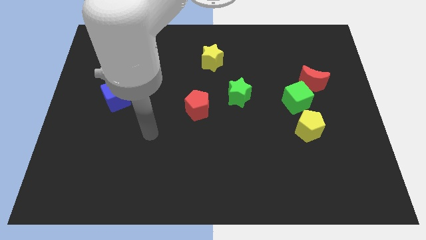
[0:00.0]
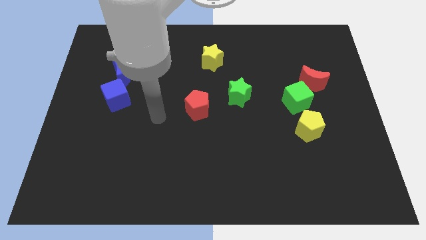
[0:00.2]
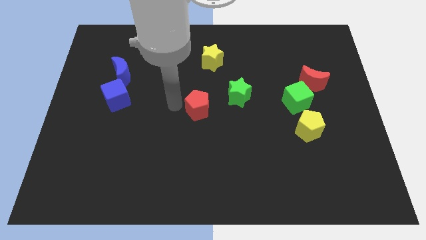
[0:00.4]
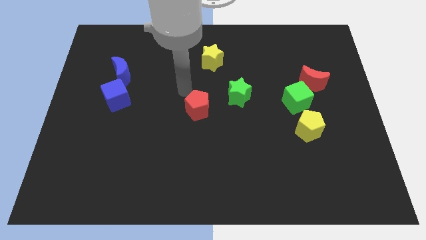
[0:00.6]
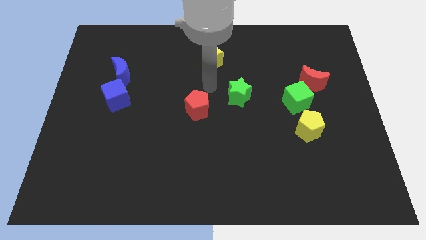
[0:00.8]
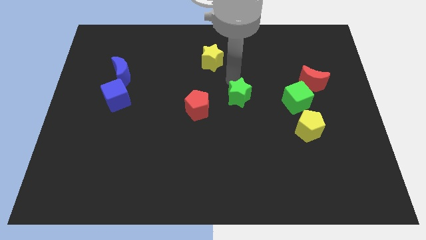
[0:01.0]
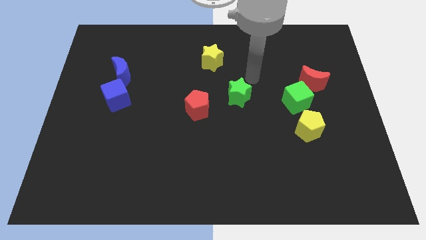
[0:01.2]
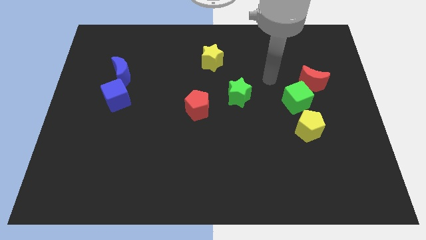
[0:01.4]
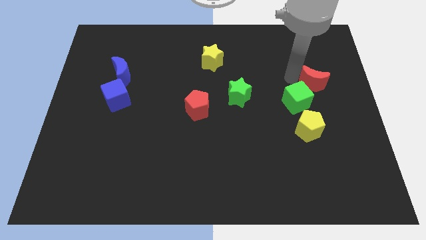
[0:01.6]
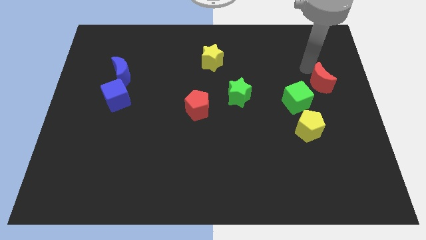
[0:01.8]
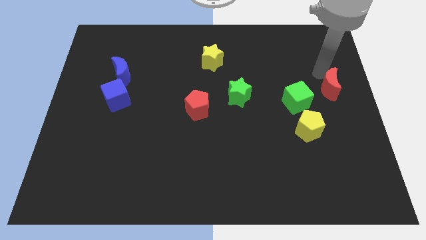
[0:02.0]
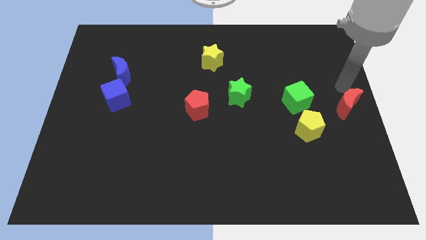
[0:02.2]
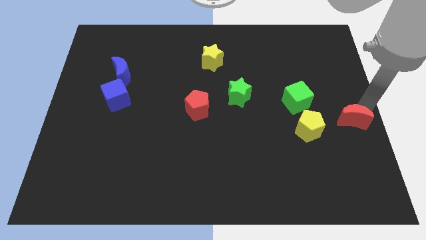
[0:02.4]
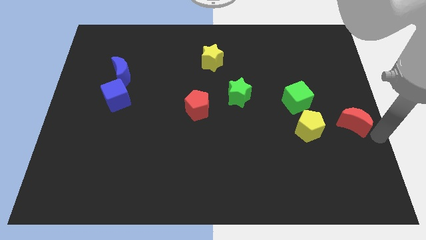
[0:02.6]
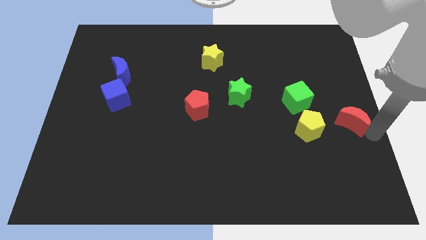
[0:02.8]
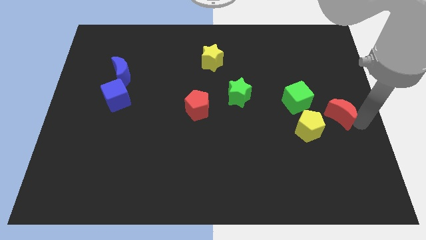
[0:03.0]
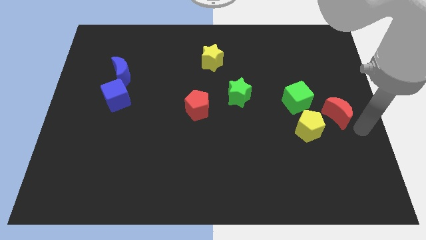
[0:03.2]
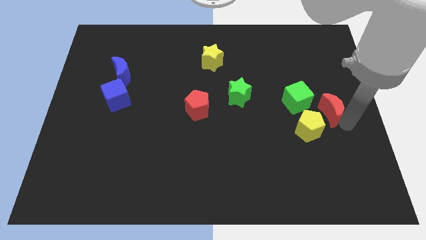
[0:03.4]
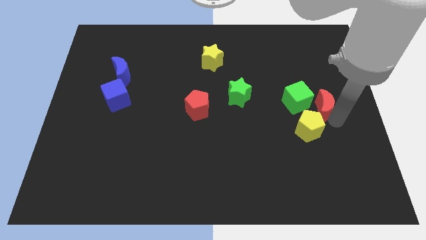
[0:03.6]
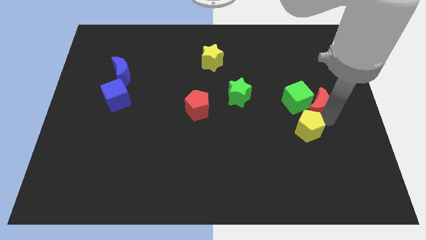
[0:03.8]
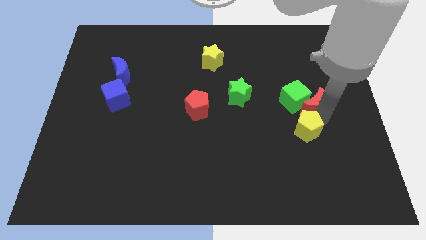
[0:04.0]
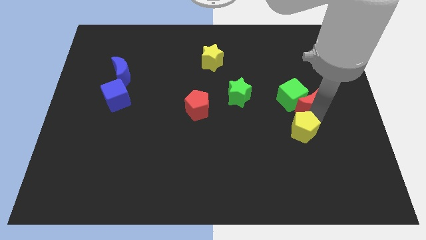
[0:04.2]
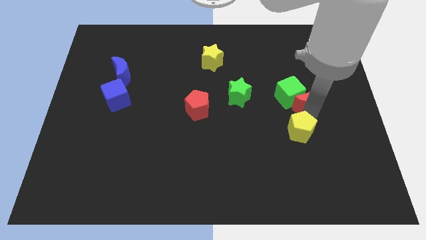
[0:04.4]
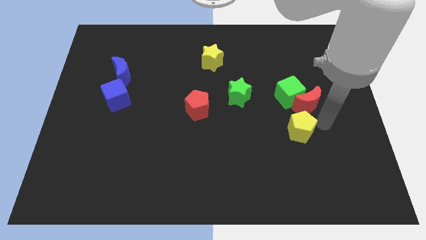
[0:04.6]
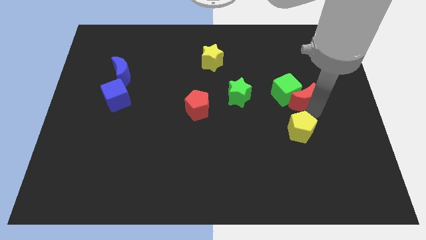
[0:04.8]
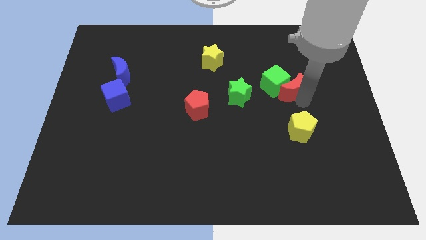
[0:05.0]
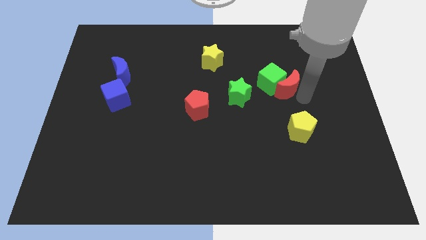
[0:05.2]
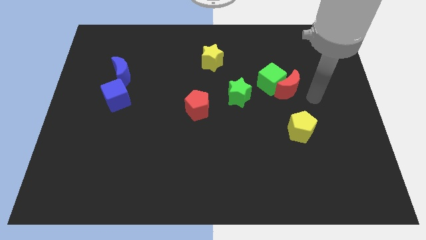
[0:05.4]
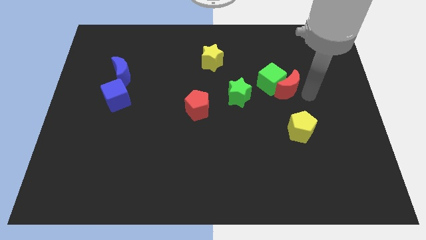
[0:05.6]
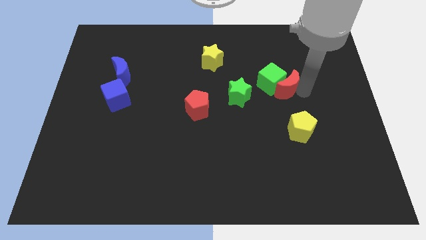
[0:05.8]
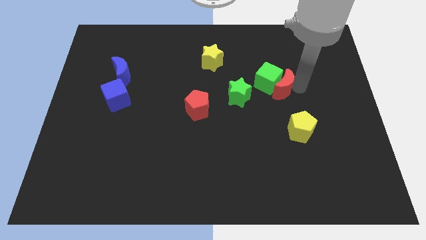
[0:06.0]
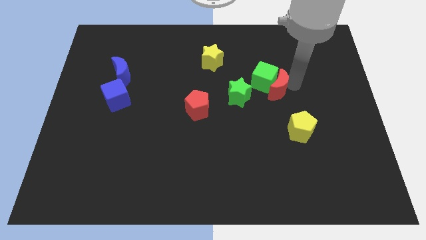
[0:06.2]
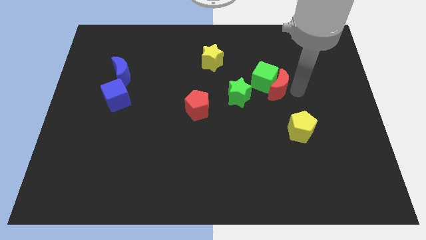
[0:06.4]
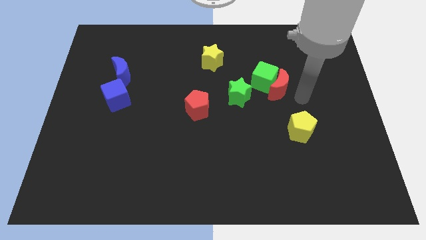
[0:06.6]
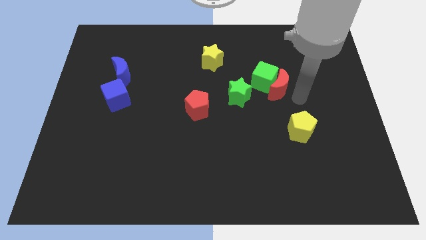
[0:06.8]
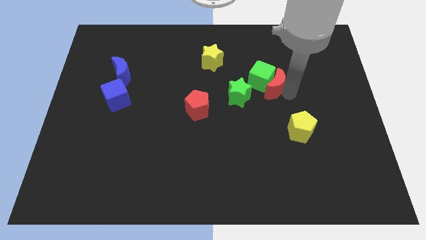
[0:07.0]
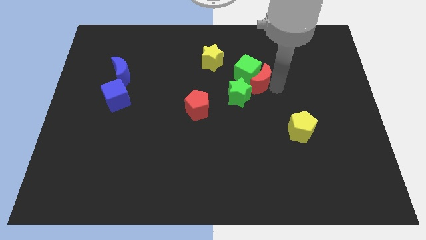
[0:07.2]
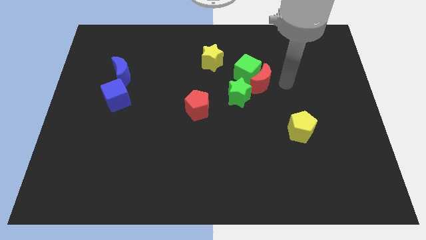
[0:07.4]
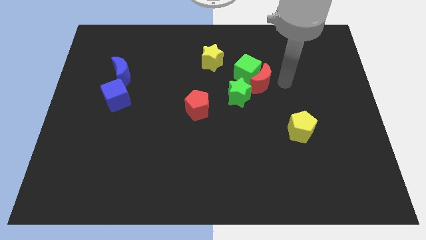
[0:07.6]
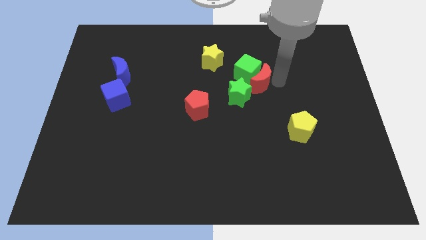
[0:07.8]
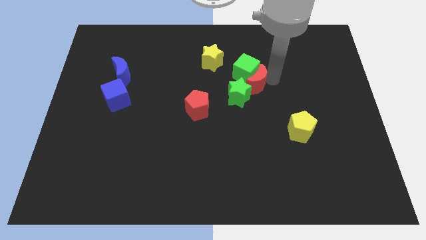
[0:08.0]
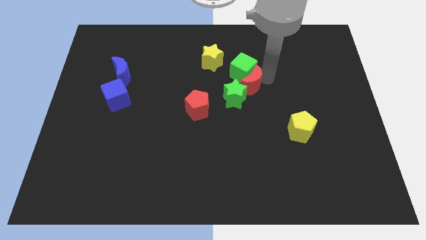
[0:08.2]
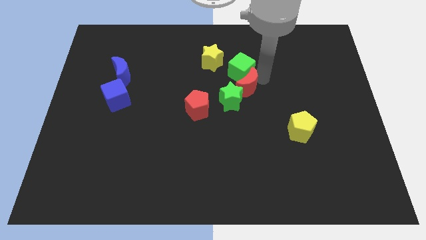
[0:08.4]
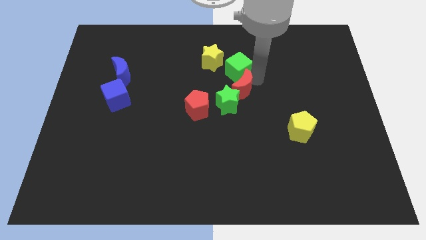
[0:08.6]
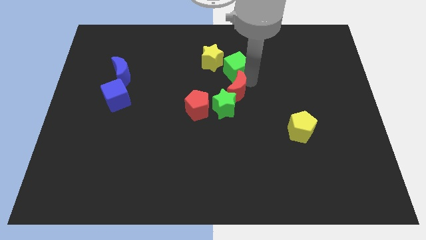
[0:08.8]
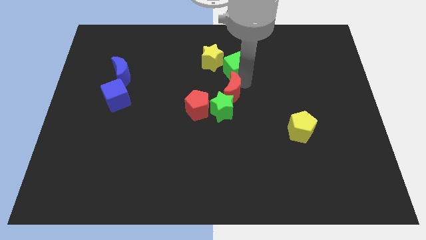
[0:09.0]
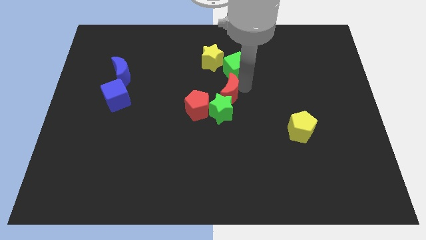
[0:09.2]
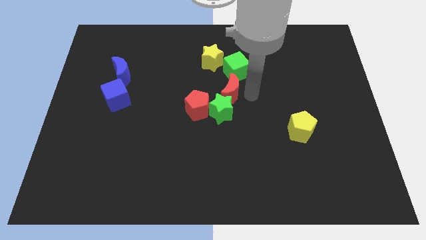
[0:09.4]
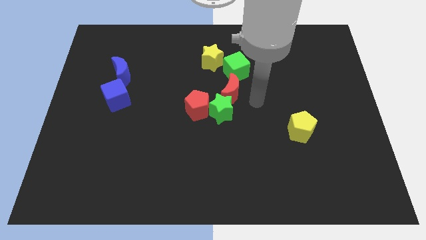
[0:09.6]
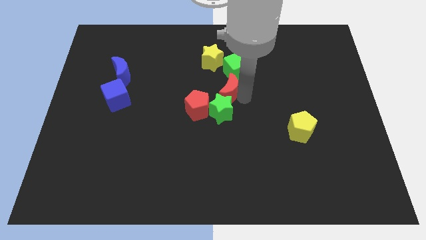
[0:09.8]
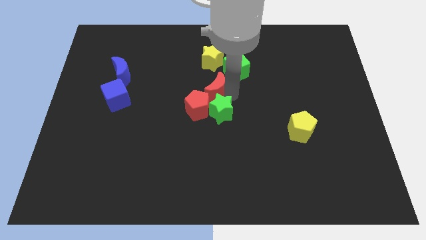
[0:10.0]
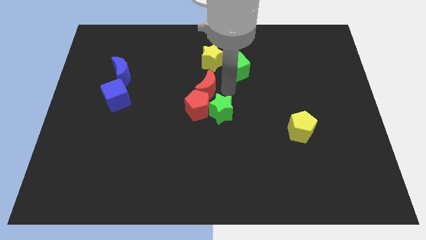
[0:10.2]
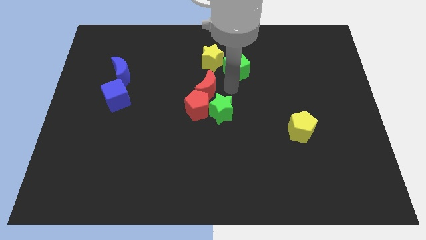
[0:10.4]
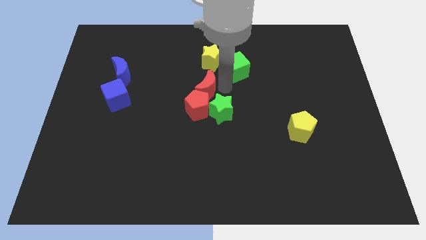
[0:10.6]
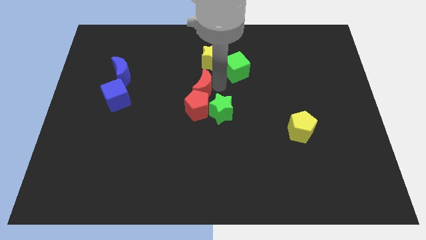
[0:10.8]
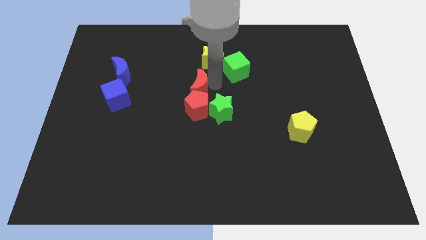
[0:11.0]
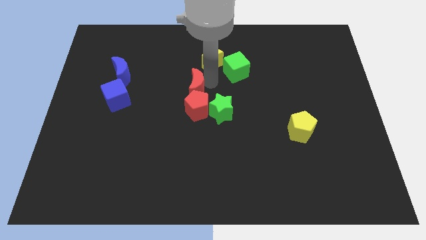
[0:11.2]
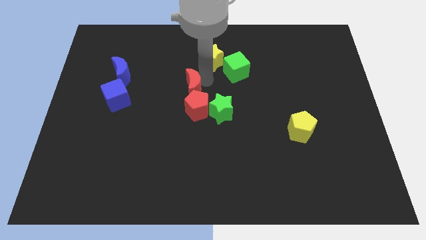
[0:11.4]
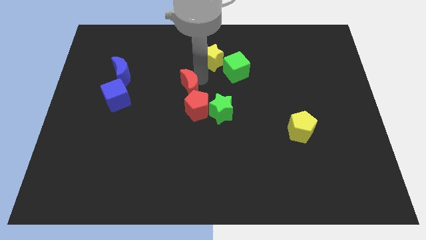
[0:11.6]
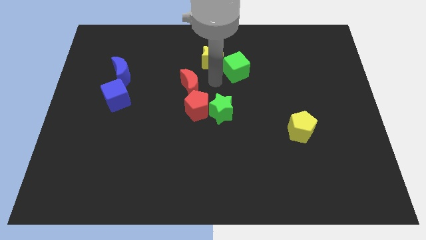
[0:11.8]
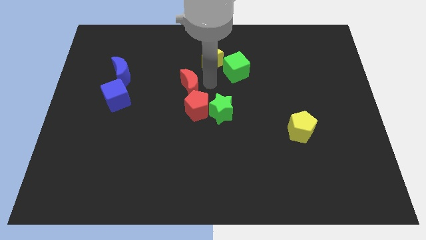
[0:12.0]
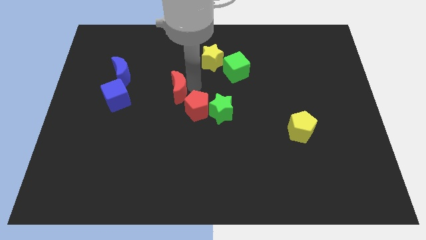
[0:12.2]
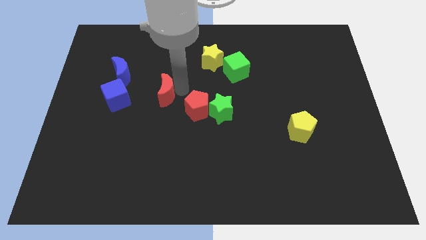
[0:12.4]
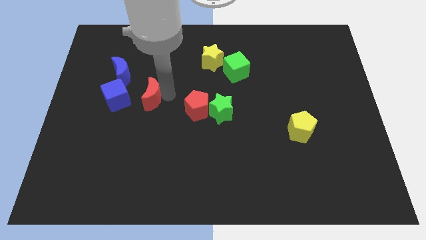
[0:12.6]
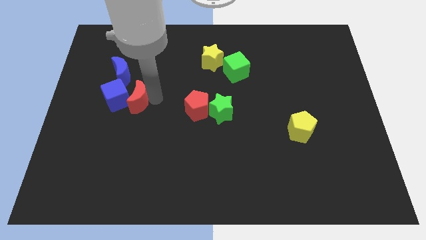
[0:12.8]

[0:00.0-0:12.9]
push the red moon close to the blue cube
